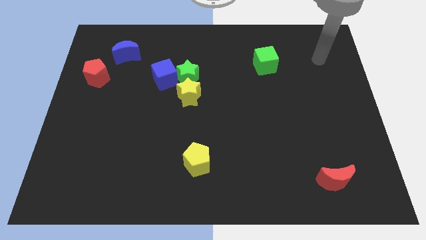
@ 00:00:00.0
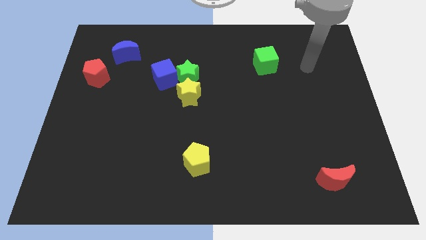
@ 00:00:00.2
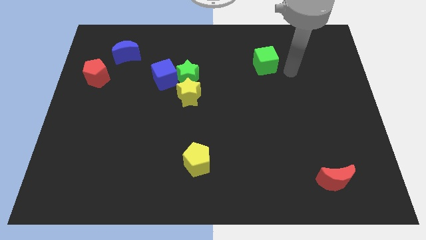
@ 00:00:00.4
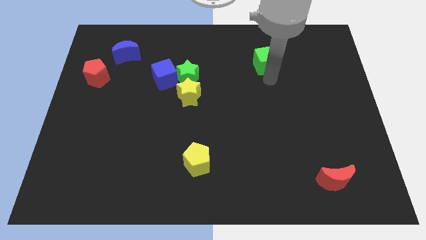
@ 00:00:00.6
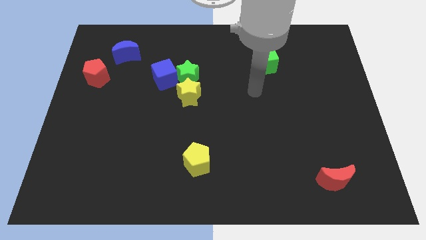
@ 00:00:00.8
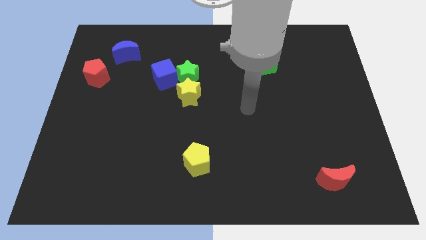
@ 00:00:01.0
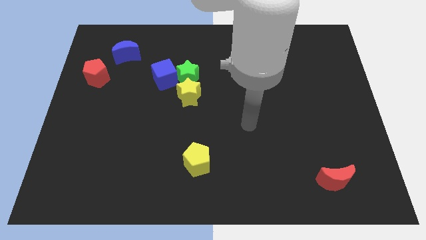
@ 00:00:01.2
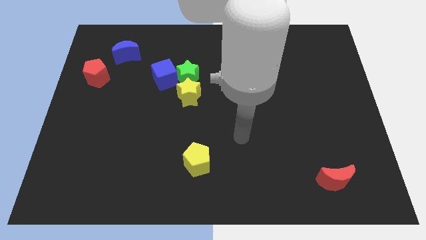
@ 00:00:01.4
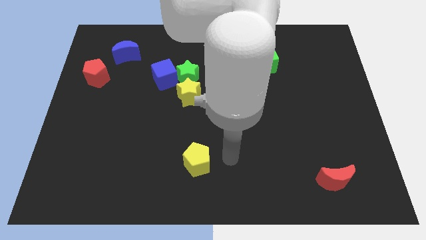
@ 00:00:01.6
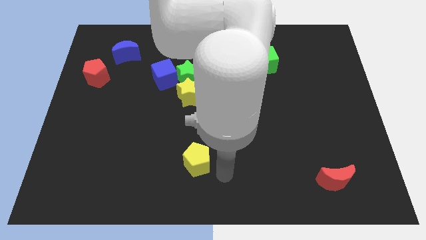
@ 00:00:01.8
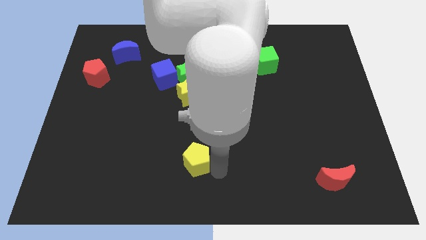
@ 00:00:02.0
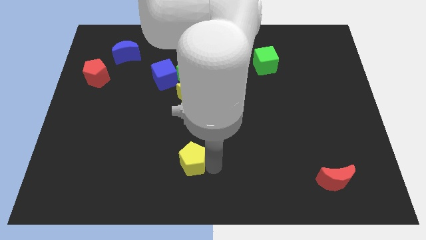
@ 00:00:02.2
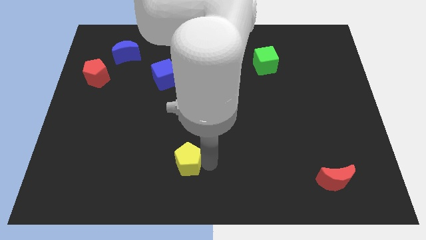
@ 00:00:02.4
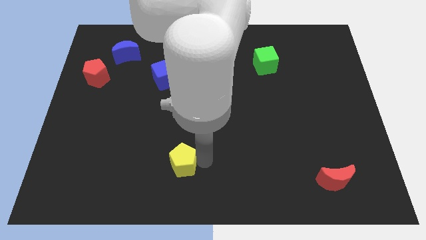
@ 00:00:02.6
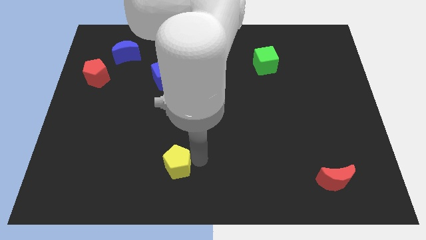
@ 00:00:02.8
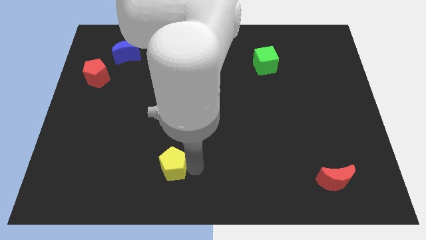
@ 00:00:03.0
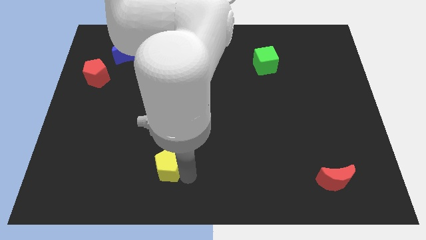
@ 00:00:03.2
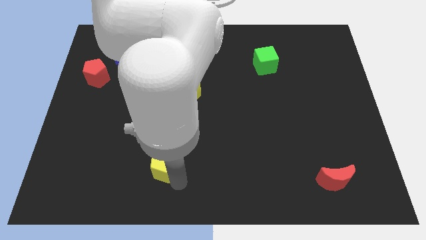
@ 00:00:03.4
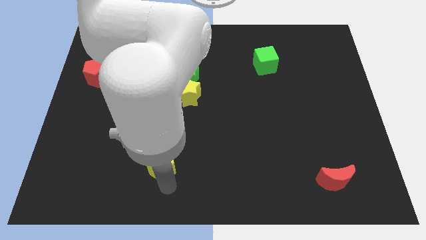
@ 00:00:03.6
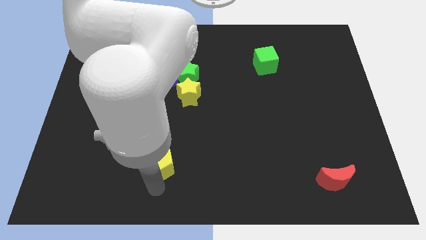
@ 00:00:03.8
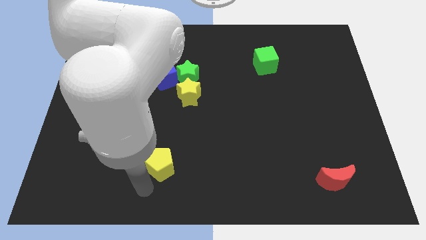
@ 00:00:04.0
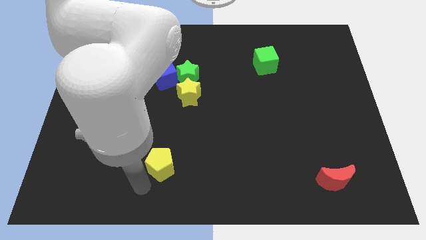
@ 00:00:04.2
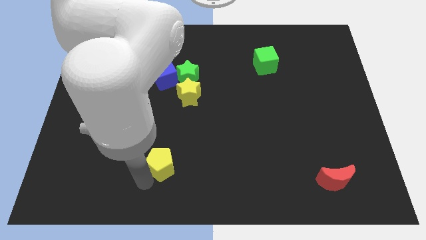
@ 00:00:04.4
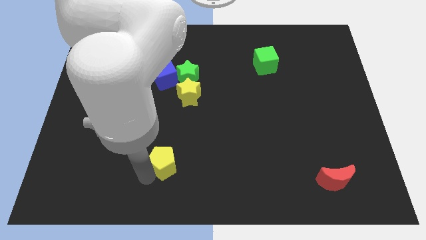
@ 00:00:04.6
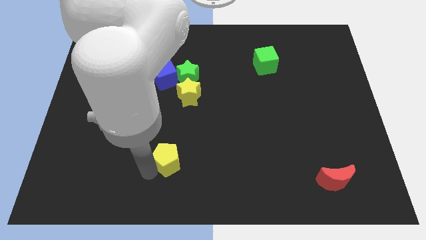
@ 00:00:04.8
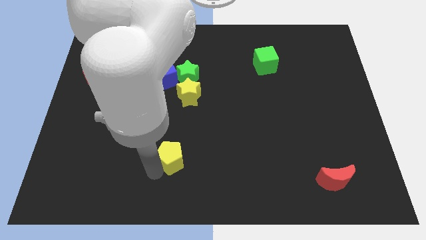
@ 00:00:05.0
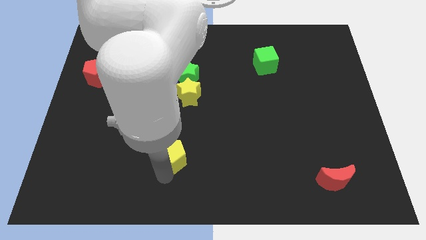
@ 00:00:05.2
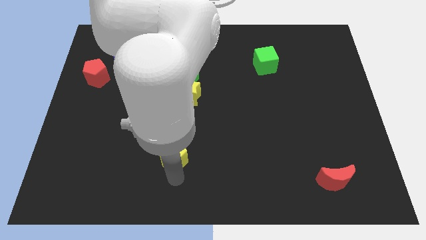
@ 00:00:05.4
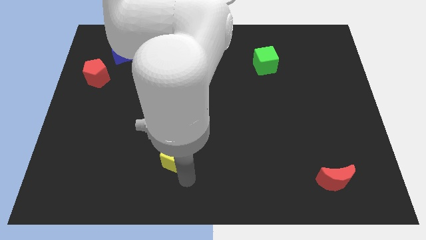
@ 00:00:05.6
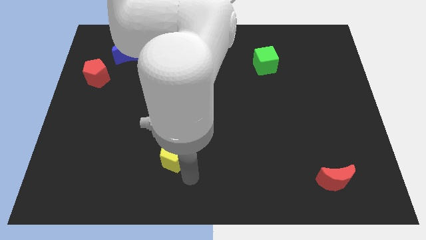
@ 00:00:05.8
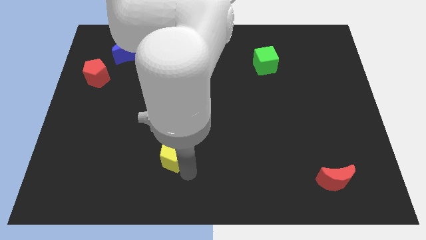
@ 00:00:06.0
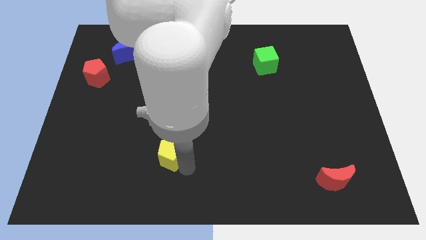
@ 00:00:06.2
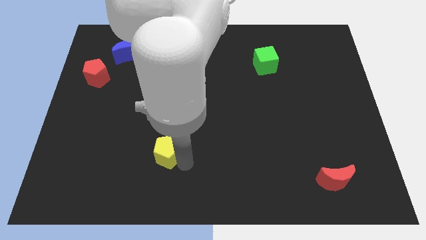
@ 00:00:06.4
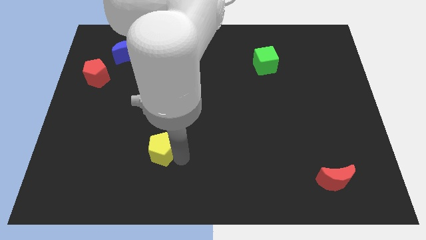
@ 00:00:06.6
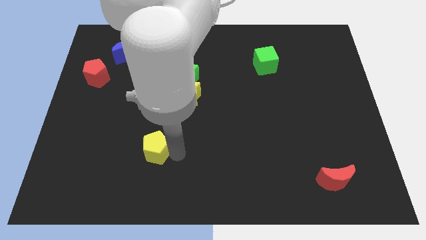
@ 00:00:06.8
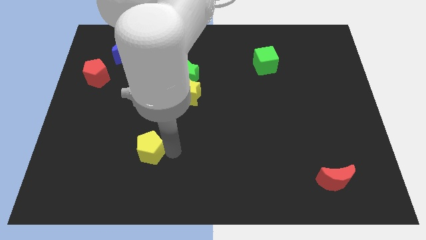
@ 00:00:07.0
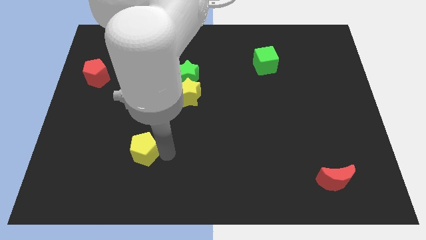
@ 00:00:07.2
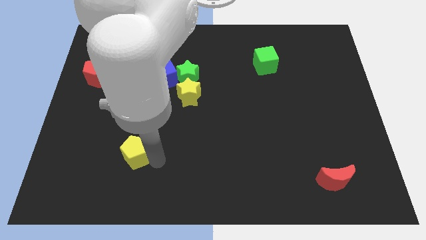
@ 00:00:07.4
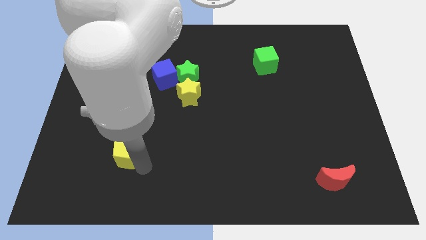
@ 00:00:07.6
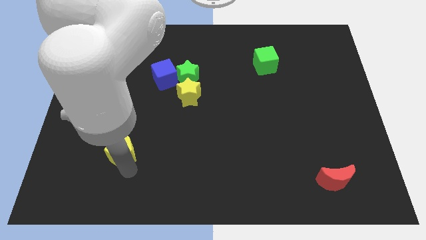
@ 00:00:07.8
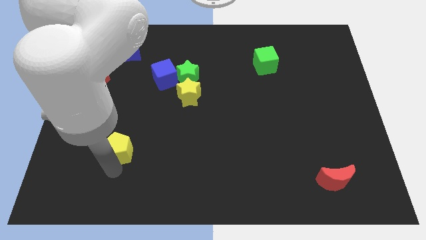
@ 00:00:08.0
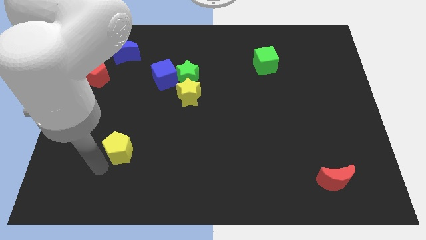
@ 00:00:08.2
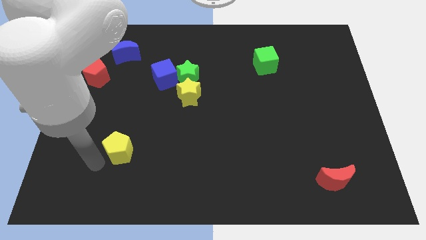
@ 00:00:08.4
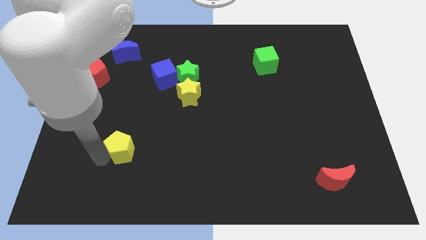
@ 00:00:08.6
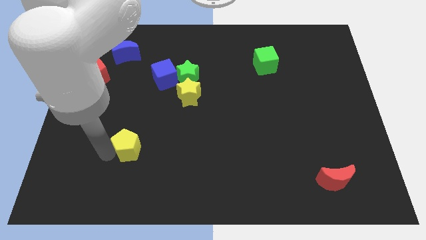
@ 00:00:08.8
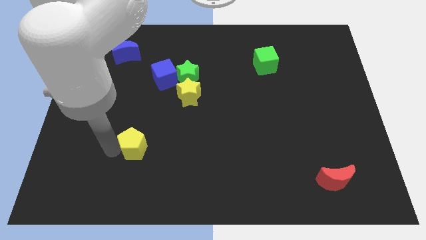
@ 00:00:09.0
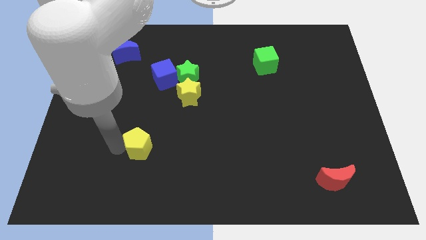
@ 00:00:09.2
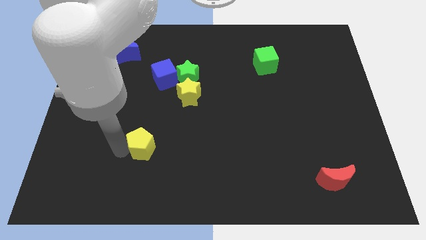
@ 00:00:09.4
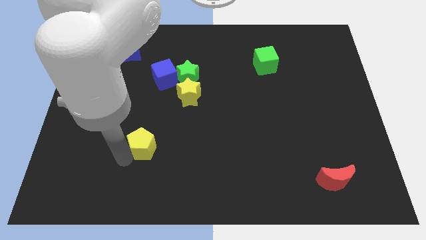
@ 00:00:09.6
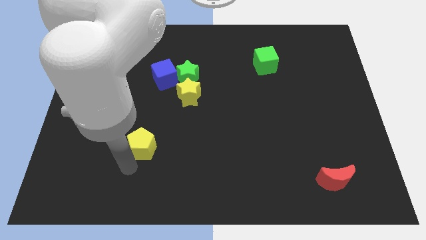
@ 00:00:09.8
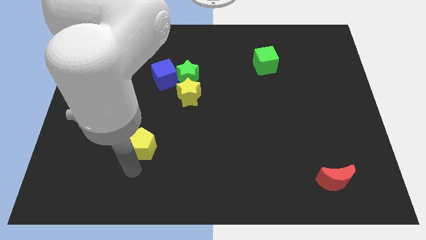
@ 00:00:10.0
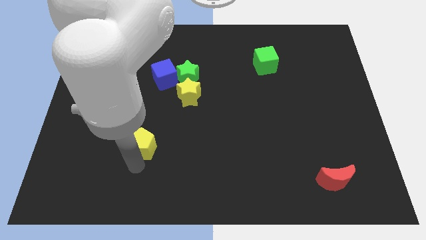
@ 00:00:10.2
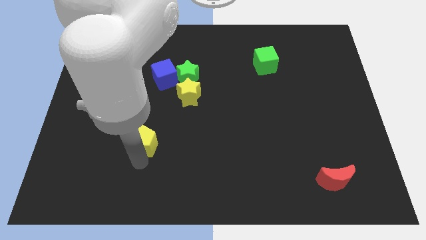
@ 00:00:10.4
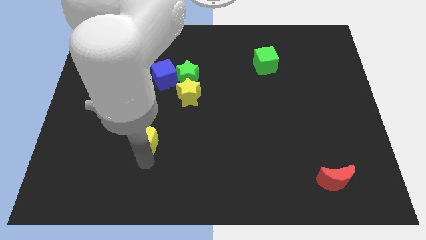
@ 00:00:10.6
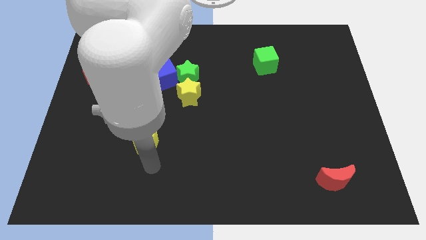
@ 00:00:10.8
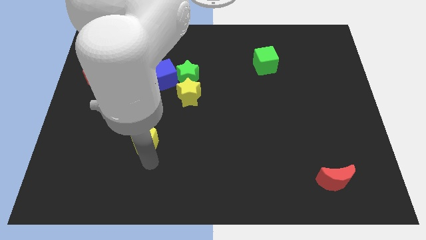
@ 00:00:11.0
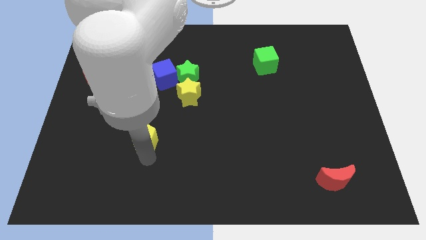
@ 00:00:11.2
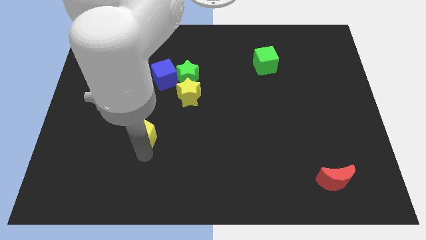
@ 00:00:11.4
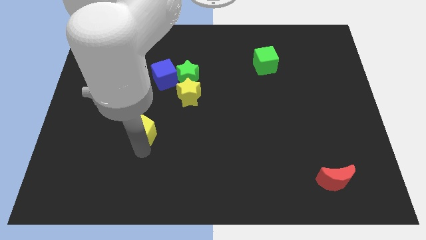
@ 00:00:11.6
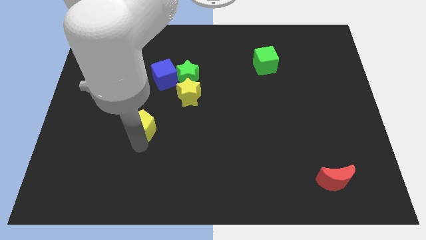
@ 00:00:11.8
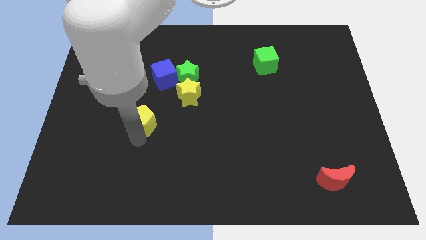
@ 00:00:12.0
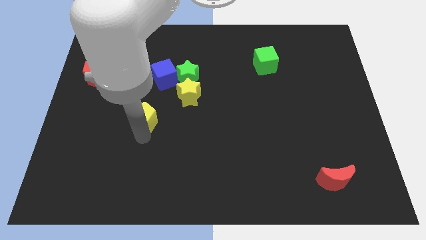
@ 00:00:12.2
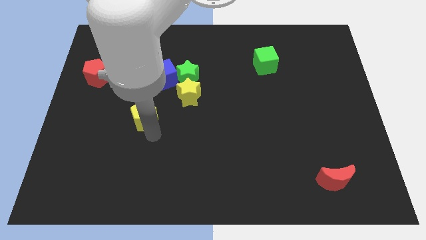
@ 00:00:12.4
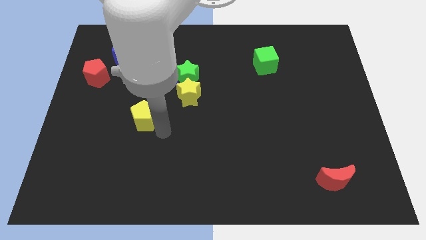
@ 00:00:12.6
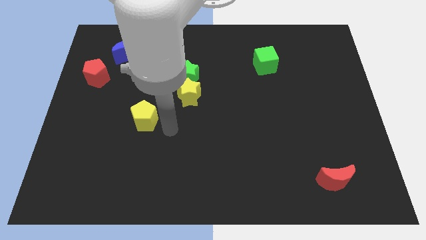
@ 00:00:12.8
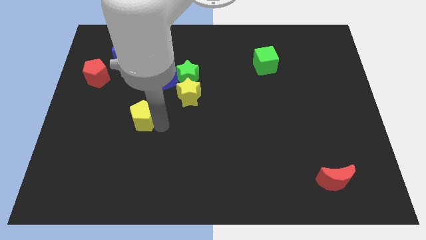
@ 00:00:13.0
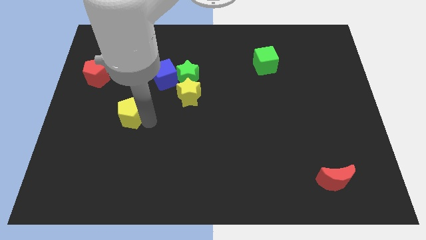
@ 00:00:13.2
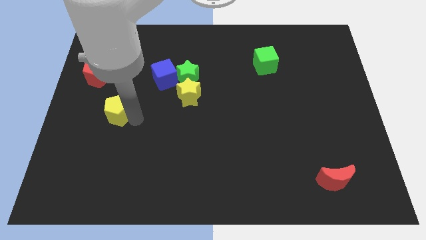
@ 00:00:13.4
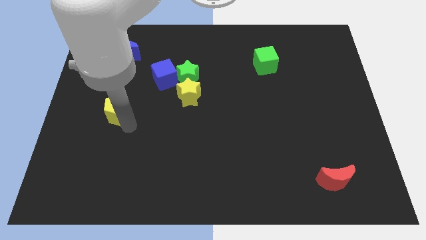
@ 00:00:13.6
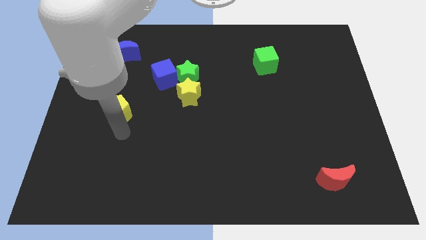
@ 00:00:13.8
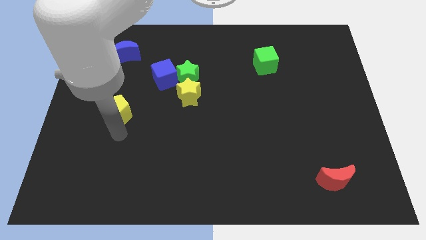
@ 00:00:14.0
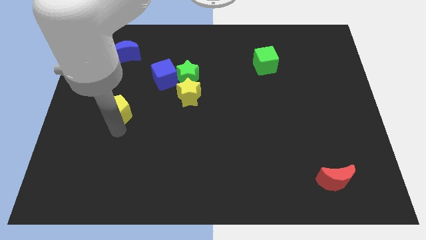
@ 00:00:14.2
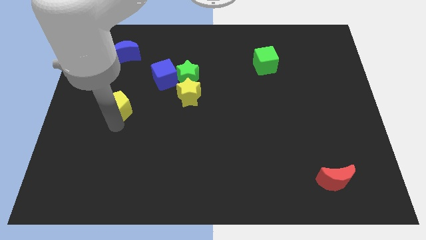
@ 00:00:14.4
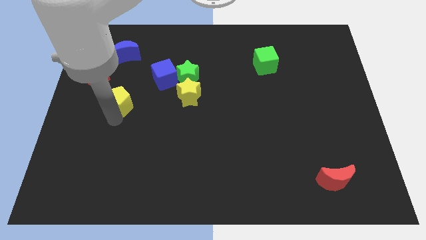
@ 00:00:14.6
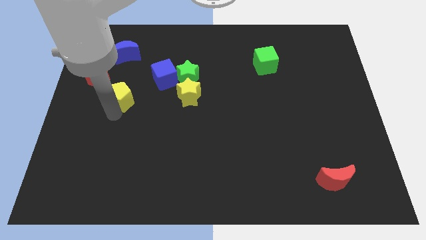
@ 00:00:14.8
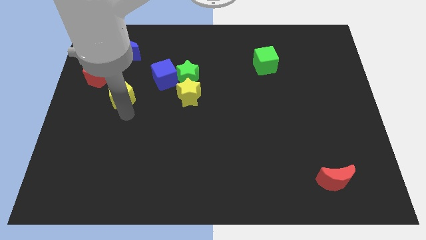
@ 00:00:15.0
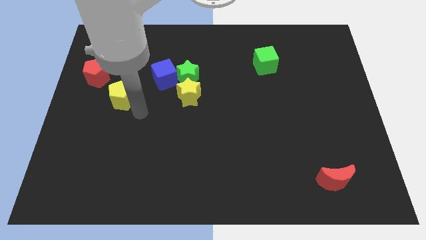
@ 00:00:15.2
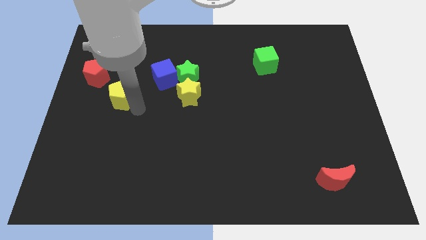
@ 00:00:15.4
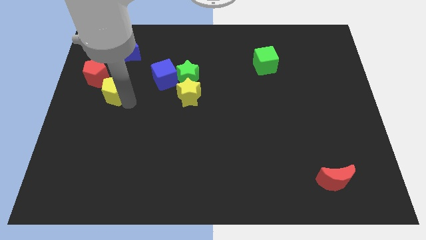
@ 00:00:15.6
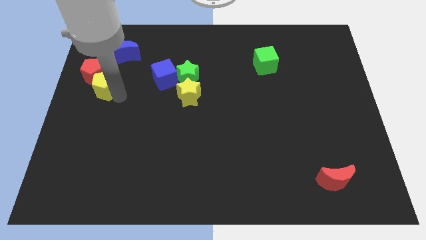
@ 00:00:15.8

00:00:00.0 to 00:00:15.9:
move the yellow pentagon close to the red pentagon
